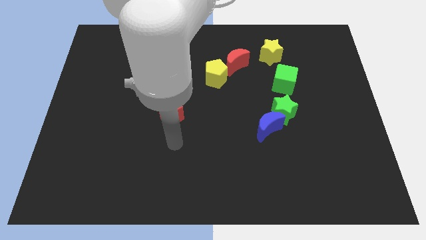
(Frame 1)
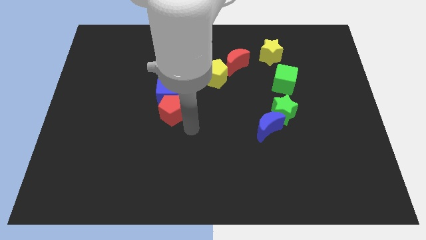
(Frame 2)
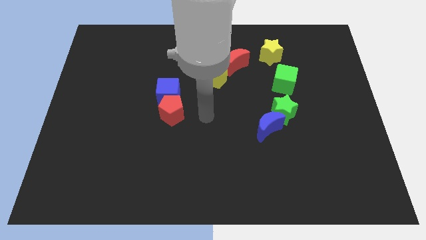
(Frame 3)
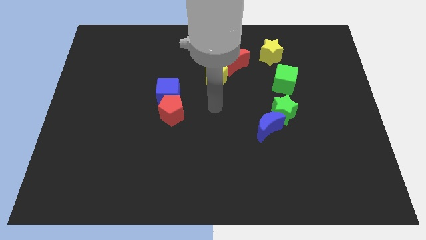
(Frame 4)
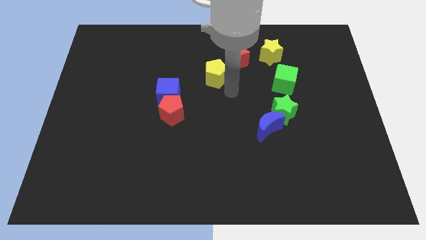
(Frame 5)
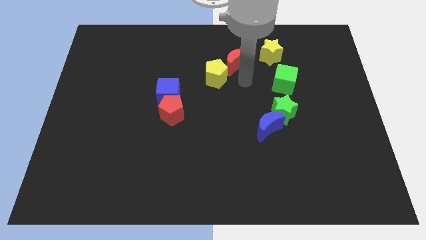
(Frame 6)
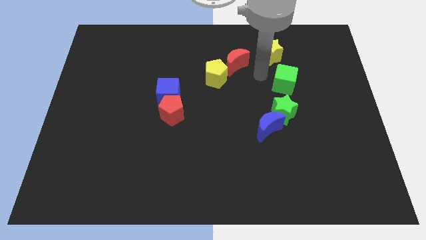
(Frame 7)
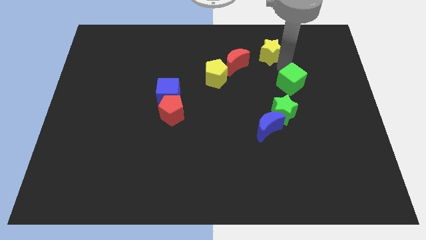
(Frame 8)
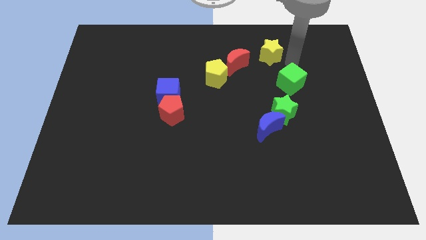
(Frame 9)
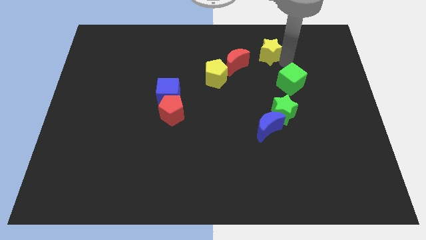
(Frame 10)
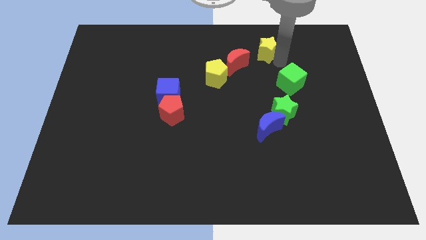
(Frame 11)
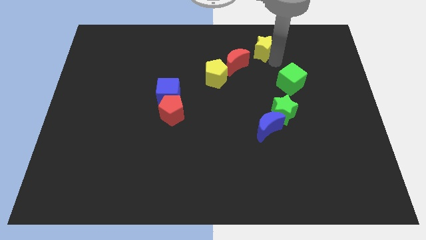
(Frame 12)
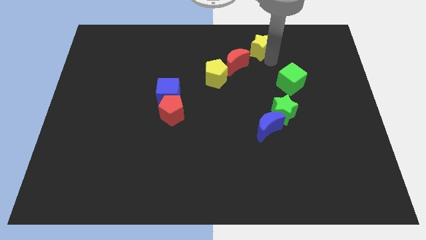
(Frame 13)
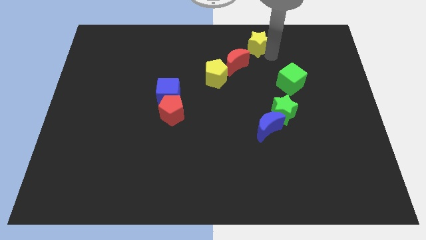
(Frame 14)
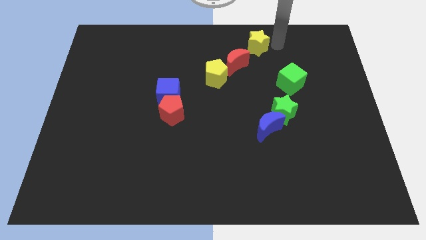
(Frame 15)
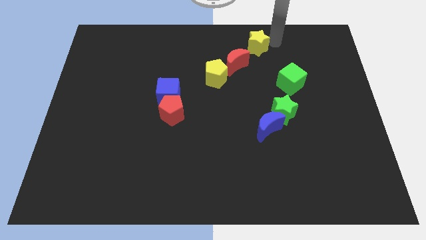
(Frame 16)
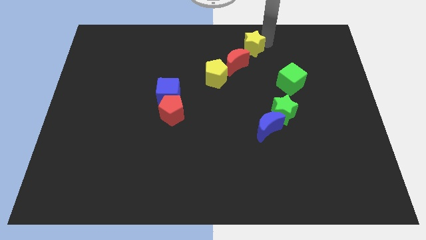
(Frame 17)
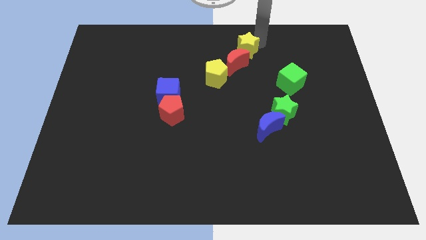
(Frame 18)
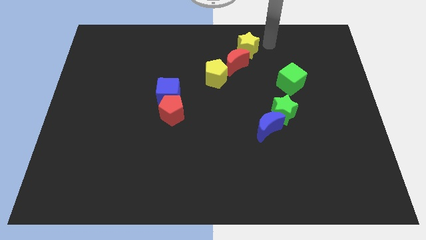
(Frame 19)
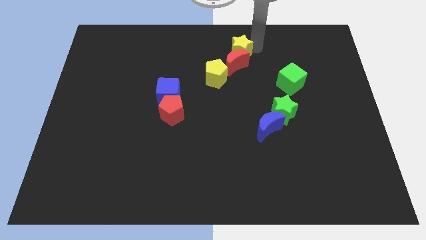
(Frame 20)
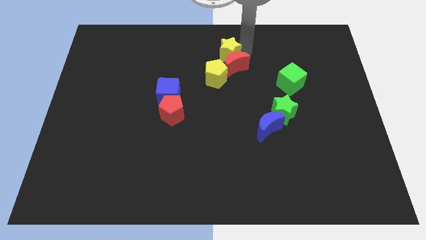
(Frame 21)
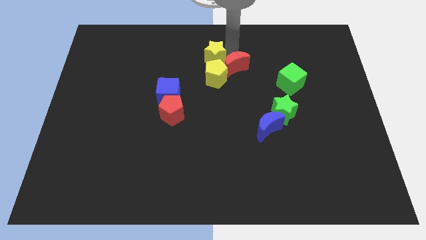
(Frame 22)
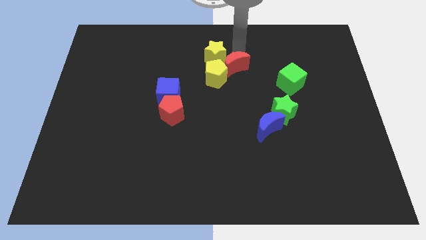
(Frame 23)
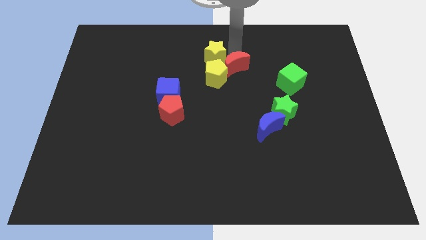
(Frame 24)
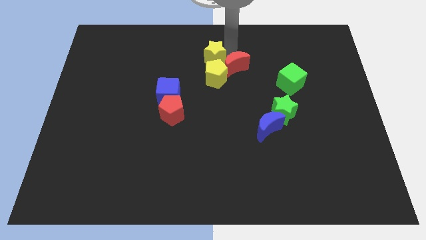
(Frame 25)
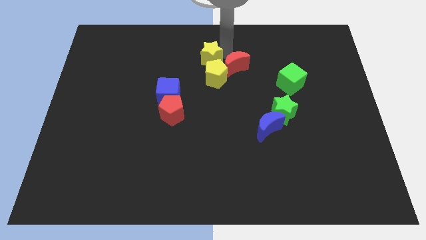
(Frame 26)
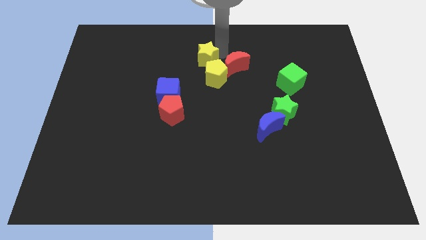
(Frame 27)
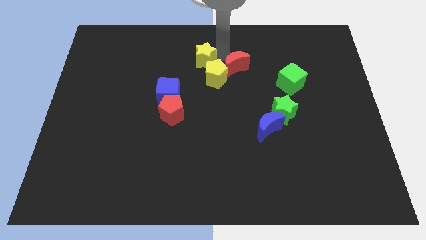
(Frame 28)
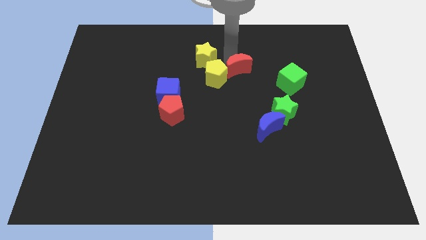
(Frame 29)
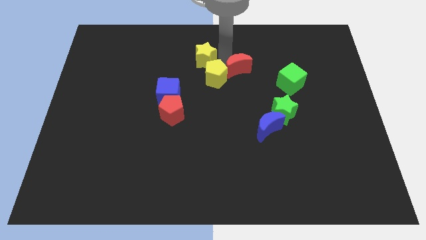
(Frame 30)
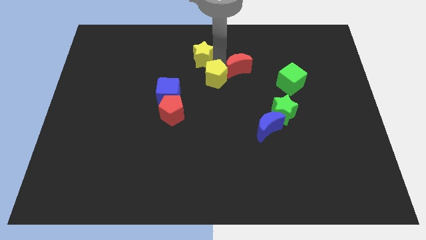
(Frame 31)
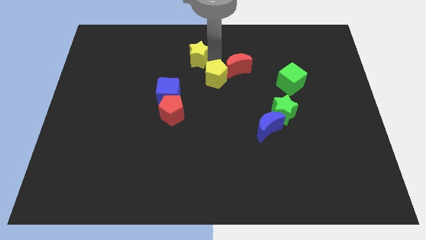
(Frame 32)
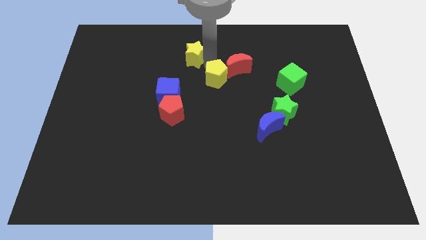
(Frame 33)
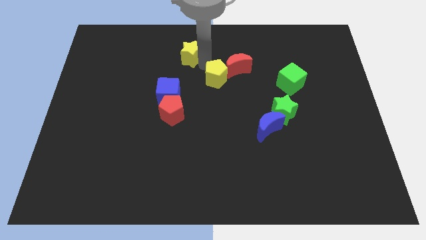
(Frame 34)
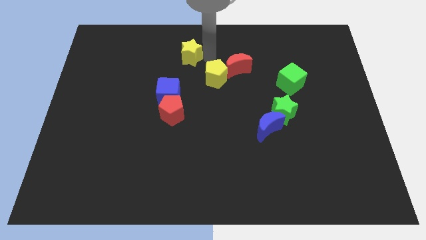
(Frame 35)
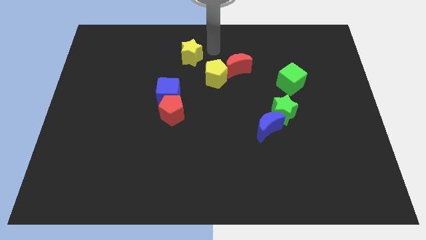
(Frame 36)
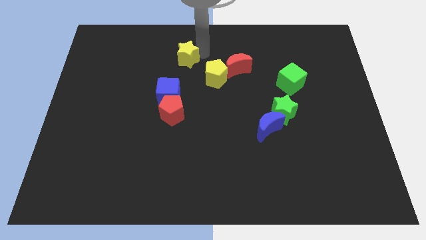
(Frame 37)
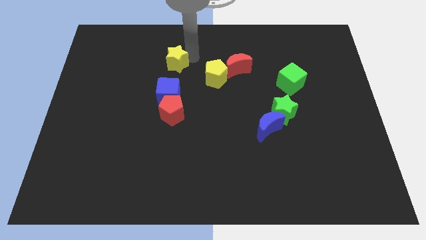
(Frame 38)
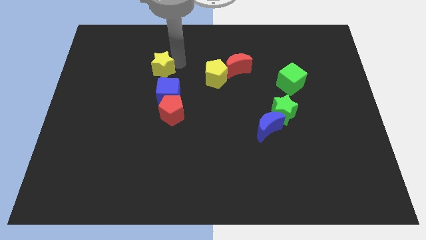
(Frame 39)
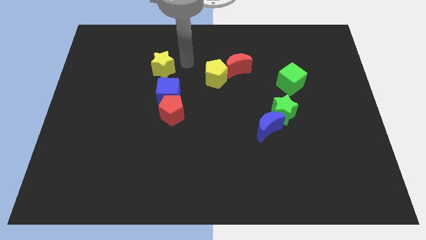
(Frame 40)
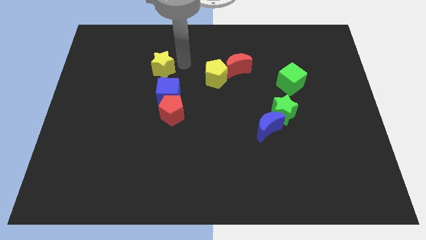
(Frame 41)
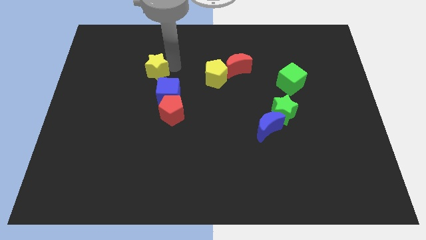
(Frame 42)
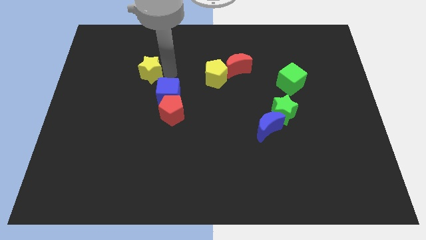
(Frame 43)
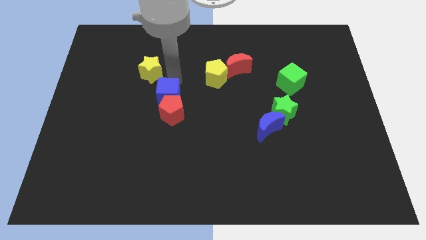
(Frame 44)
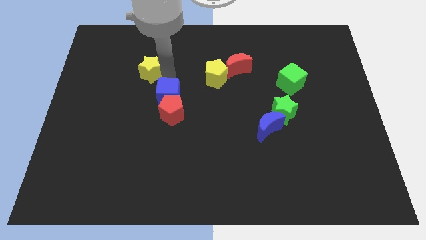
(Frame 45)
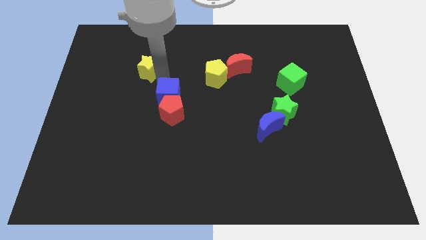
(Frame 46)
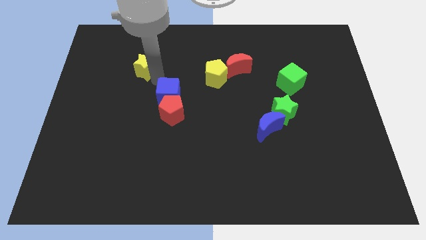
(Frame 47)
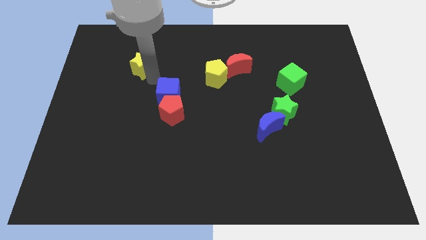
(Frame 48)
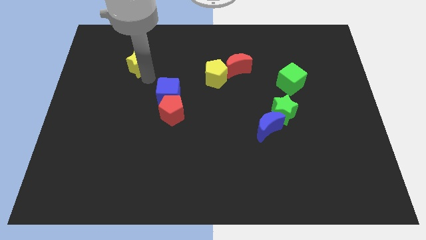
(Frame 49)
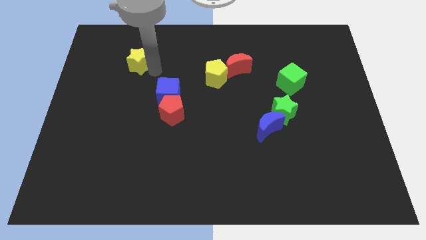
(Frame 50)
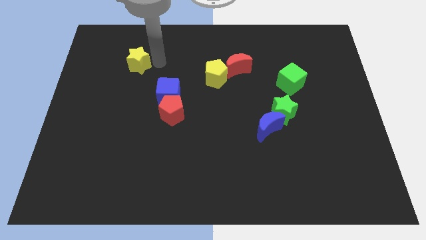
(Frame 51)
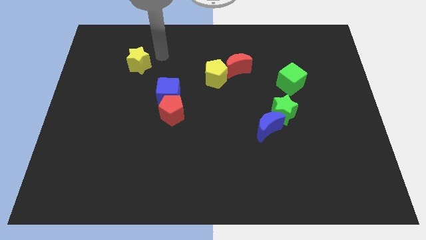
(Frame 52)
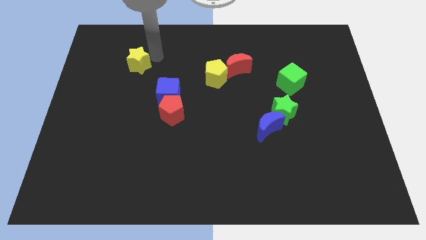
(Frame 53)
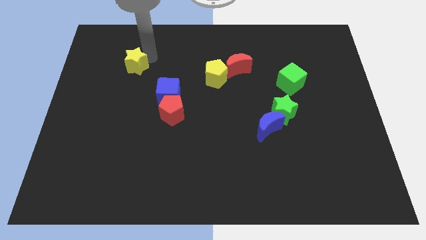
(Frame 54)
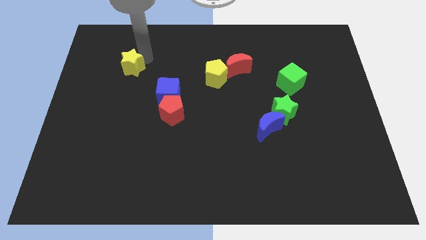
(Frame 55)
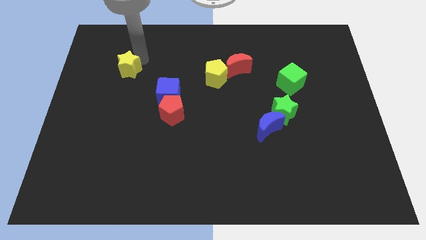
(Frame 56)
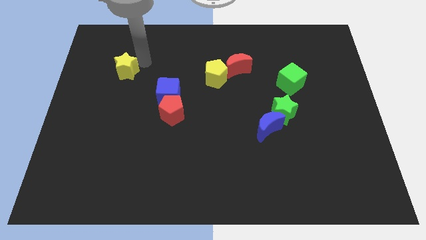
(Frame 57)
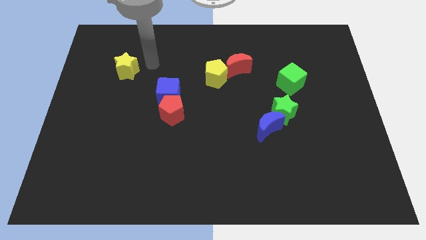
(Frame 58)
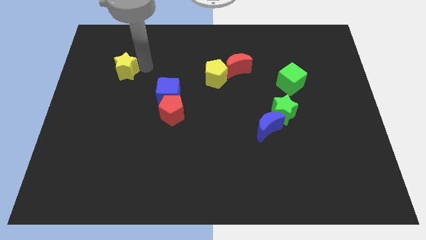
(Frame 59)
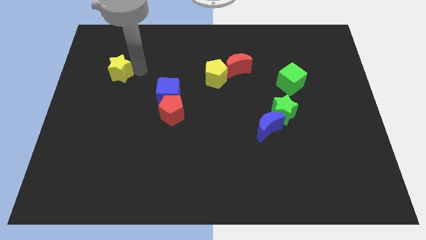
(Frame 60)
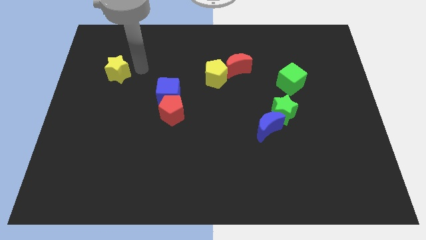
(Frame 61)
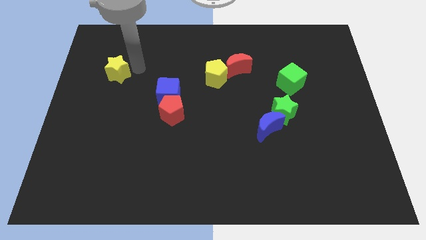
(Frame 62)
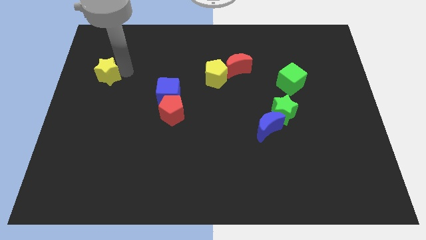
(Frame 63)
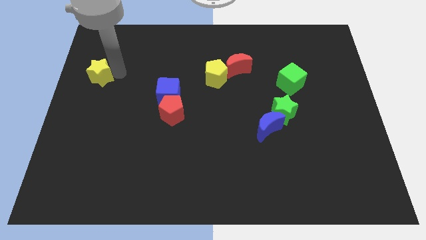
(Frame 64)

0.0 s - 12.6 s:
push the yellow star to the left side of the board
